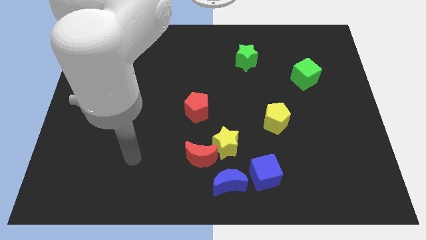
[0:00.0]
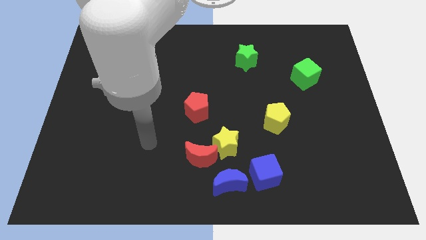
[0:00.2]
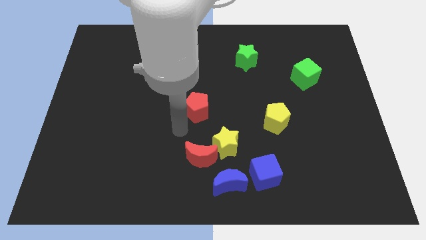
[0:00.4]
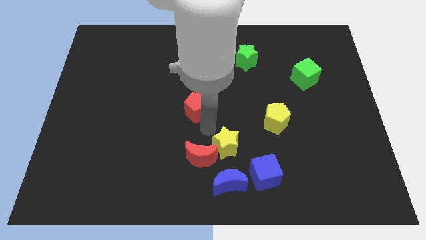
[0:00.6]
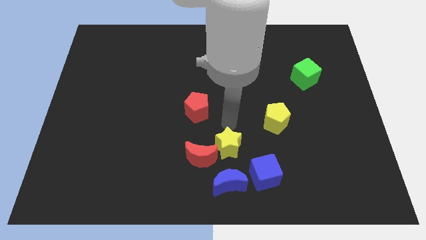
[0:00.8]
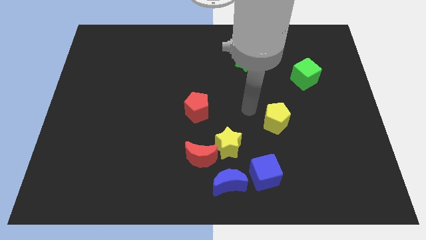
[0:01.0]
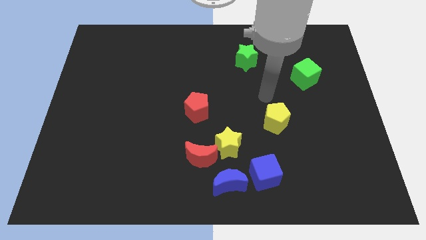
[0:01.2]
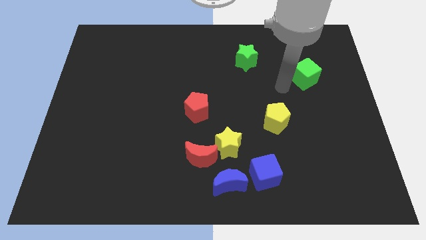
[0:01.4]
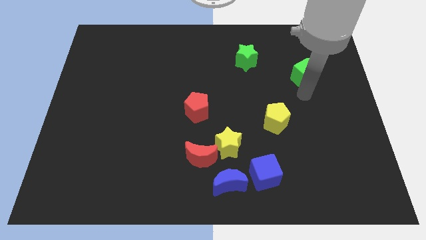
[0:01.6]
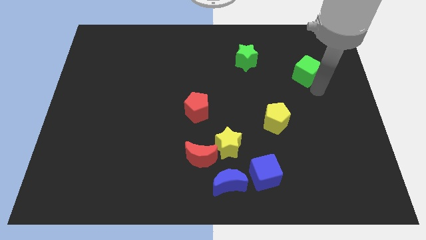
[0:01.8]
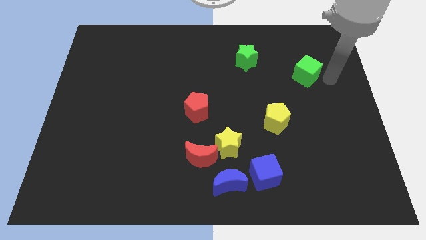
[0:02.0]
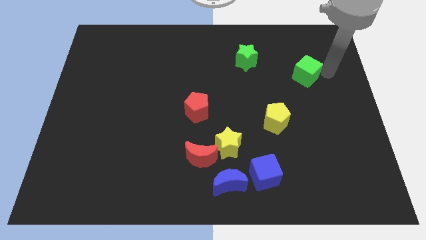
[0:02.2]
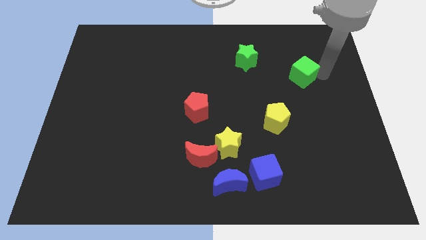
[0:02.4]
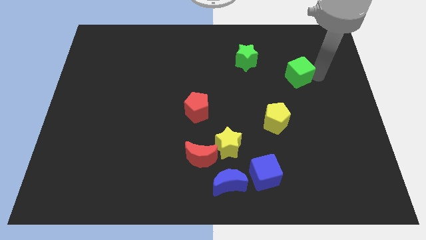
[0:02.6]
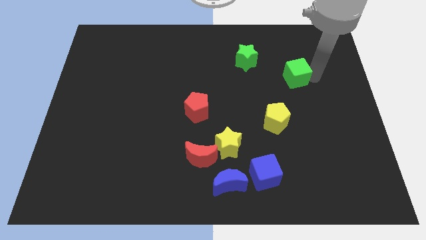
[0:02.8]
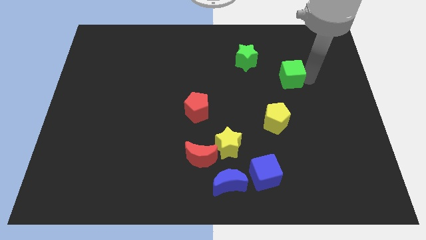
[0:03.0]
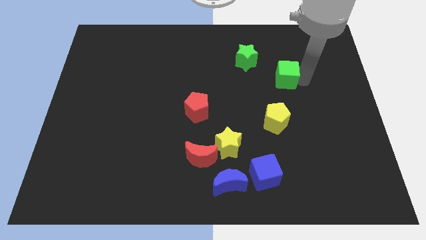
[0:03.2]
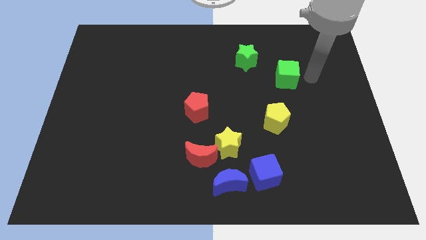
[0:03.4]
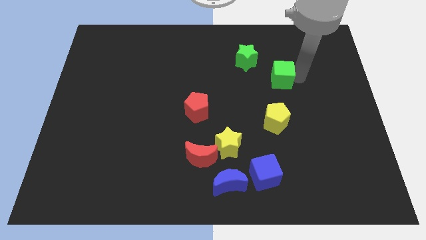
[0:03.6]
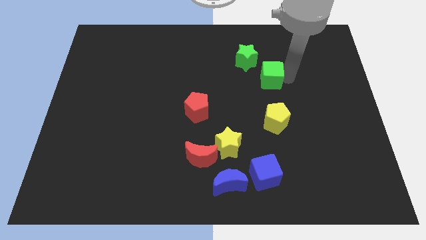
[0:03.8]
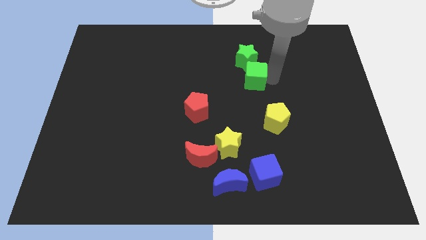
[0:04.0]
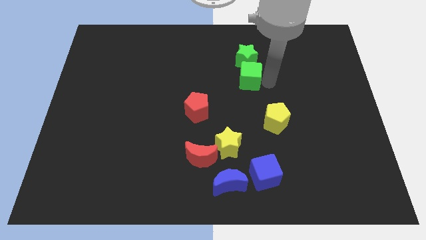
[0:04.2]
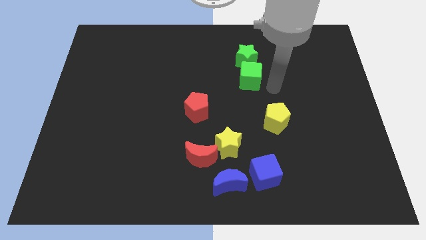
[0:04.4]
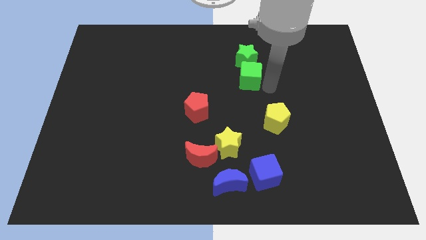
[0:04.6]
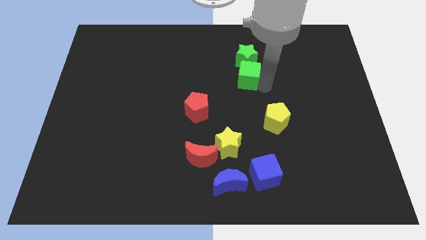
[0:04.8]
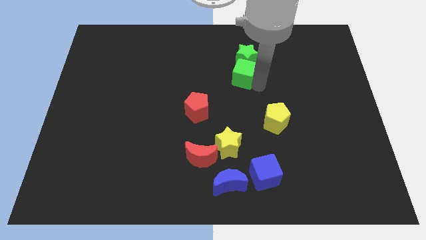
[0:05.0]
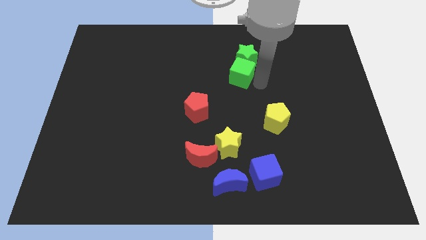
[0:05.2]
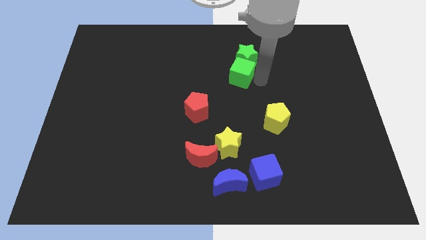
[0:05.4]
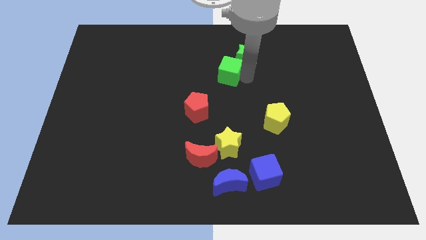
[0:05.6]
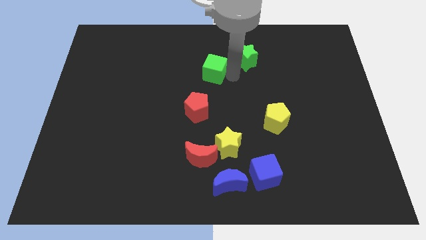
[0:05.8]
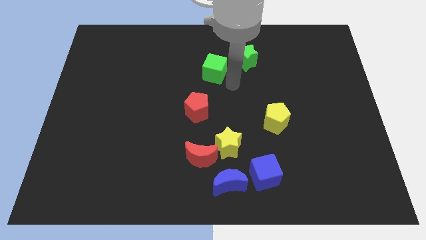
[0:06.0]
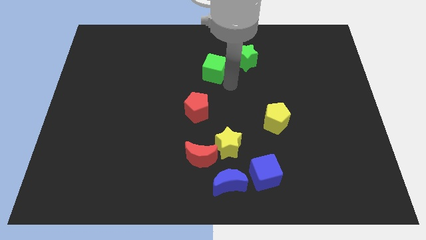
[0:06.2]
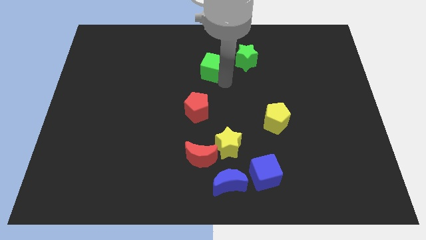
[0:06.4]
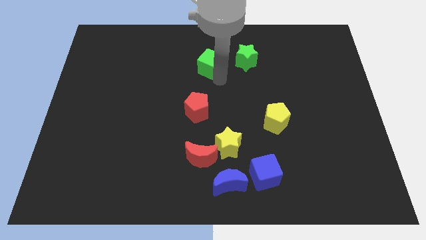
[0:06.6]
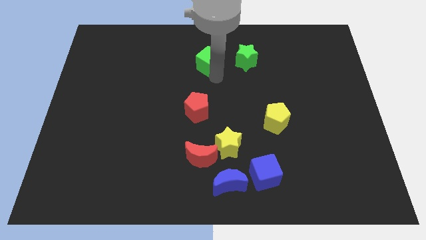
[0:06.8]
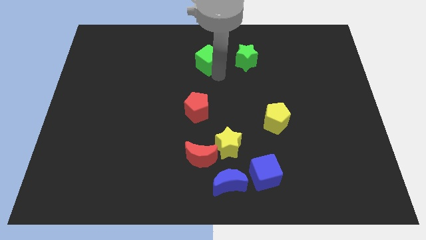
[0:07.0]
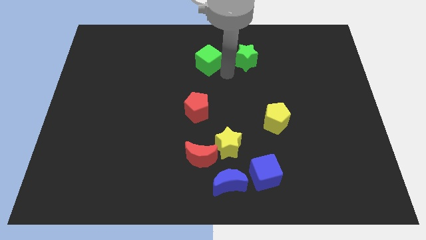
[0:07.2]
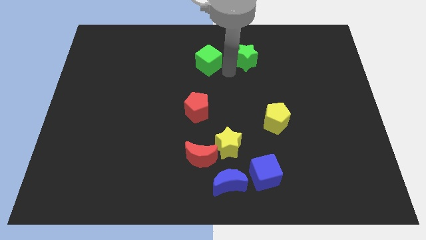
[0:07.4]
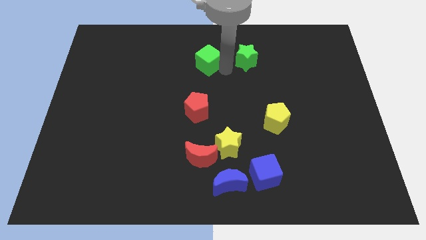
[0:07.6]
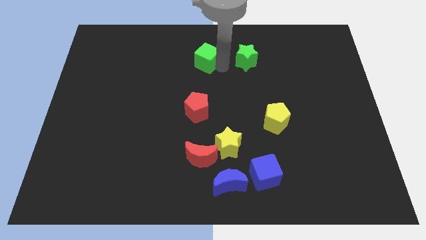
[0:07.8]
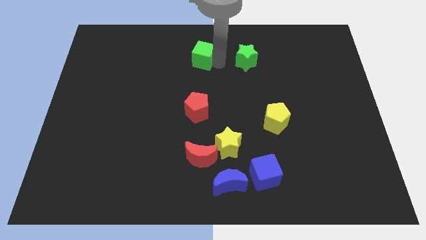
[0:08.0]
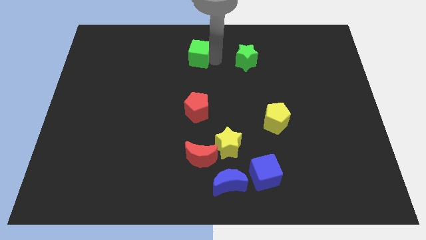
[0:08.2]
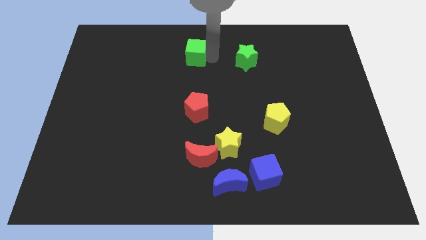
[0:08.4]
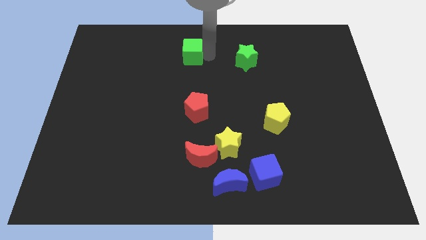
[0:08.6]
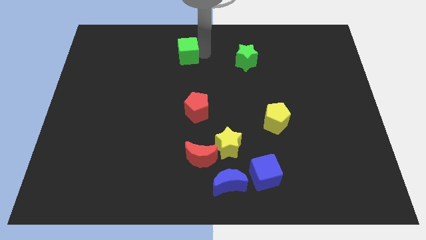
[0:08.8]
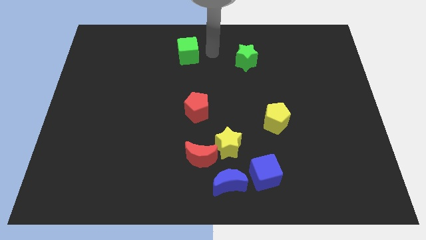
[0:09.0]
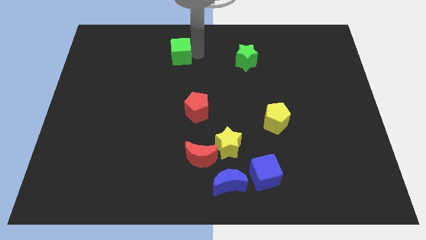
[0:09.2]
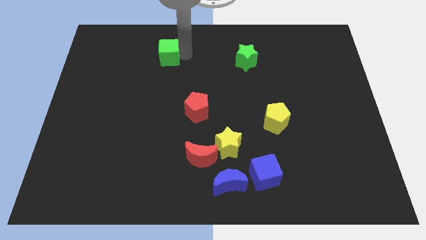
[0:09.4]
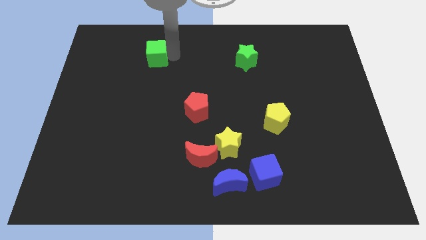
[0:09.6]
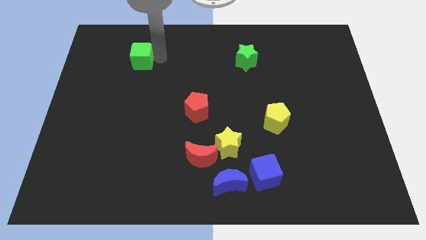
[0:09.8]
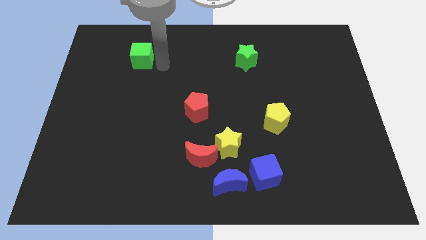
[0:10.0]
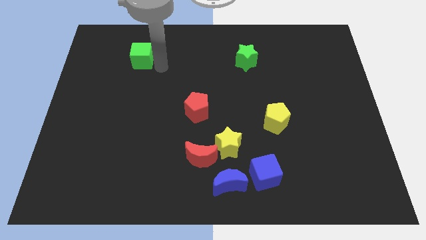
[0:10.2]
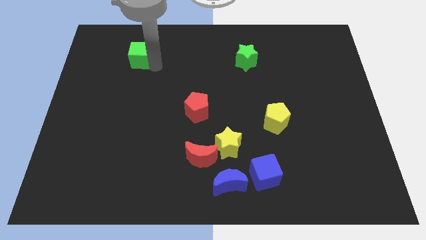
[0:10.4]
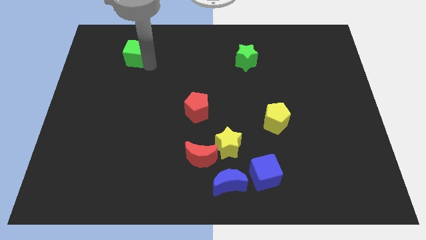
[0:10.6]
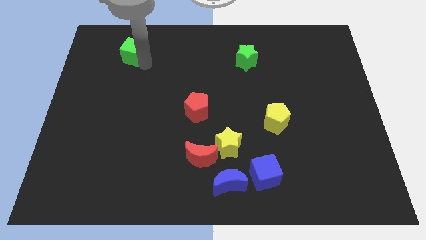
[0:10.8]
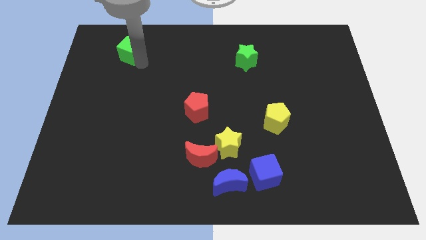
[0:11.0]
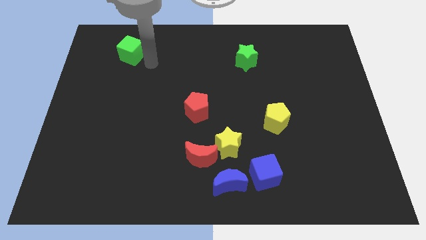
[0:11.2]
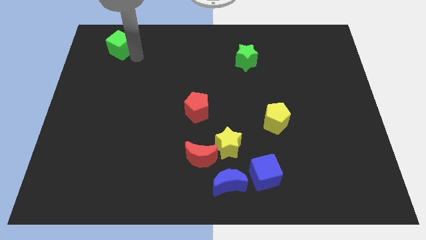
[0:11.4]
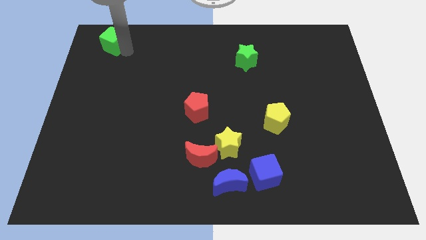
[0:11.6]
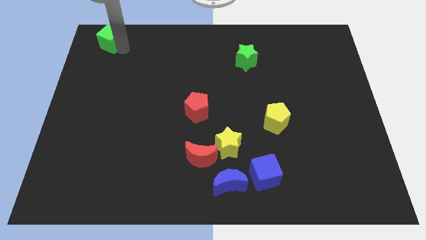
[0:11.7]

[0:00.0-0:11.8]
move the green cube to the top left of the board
